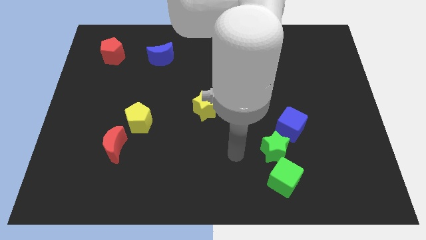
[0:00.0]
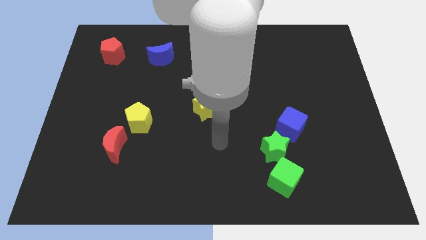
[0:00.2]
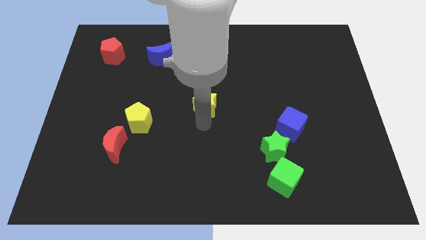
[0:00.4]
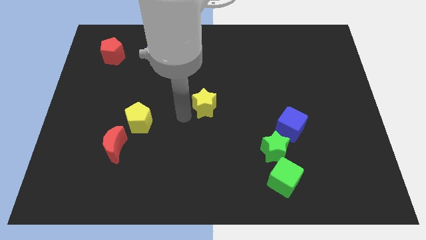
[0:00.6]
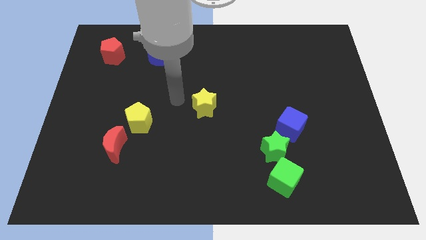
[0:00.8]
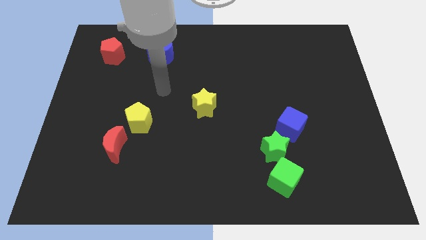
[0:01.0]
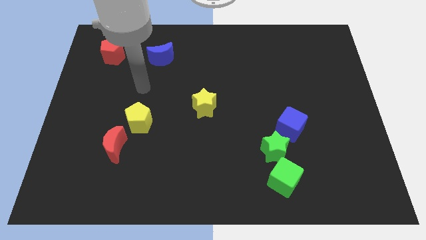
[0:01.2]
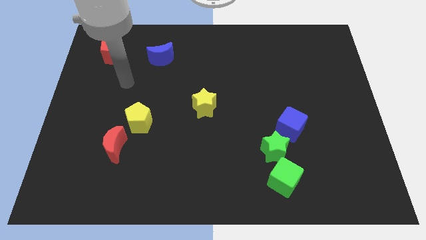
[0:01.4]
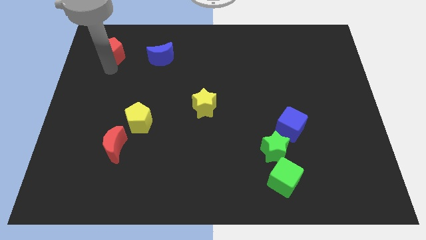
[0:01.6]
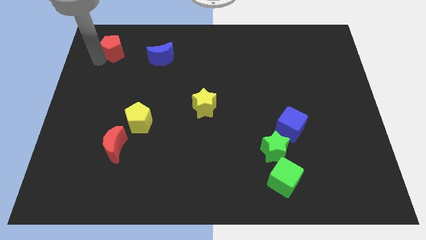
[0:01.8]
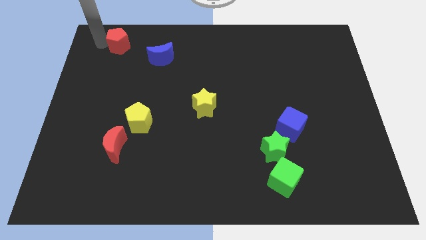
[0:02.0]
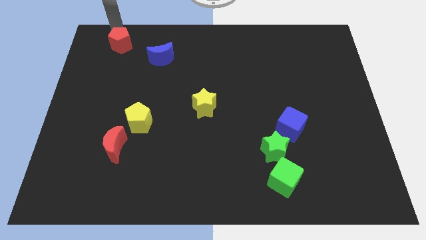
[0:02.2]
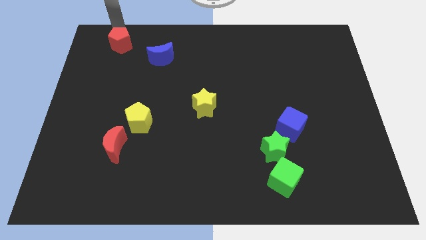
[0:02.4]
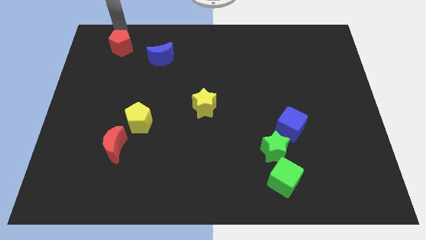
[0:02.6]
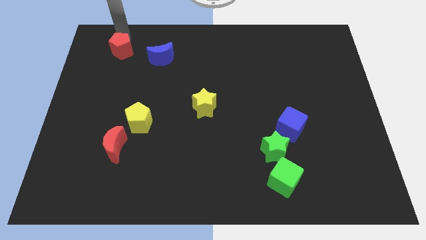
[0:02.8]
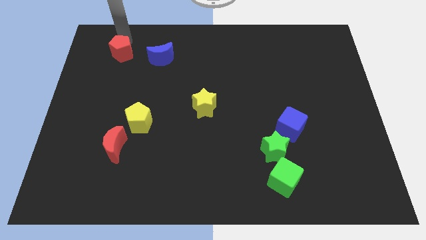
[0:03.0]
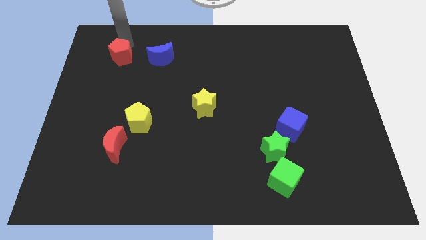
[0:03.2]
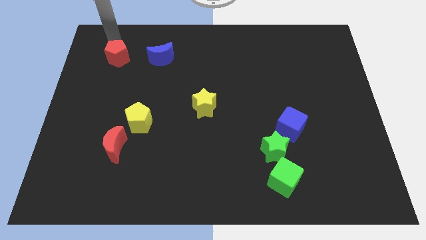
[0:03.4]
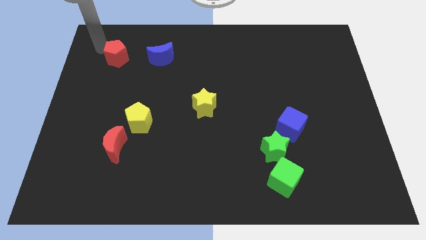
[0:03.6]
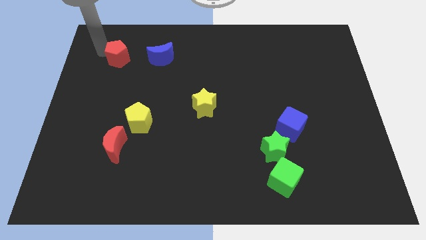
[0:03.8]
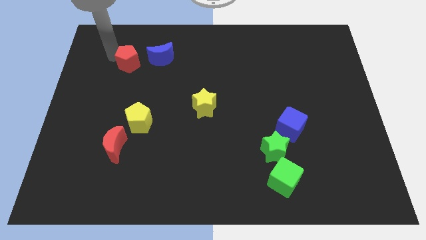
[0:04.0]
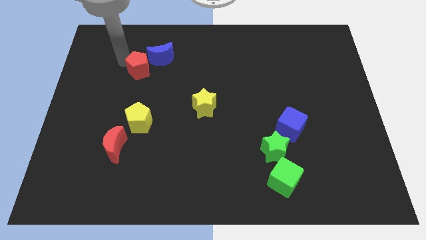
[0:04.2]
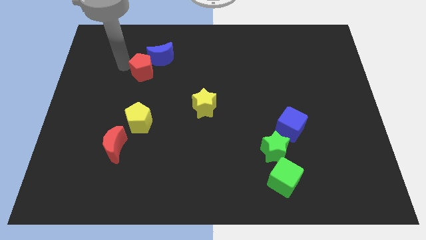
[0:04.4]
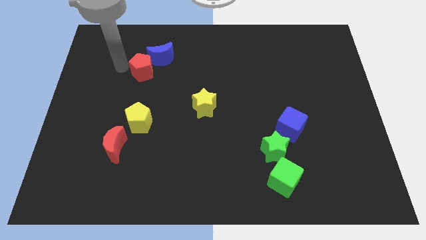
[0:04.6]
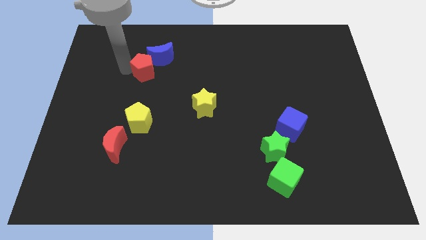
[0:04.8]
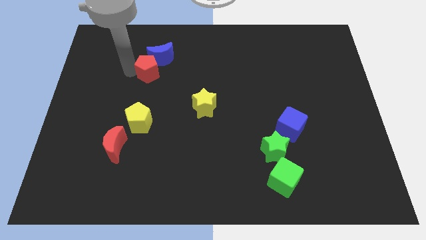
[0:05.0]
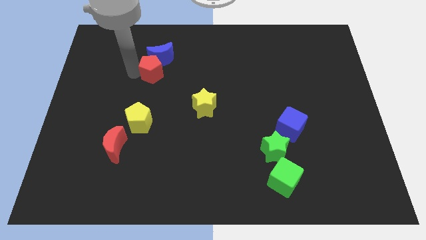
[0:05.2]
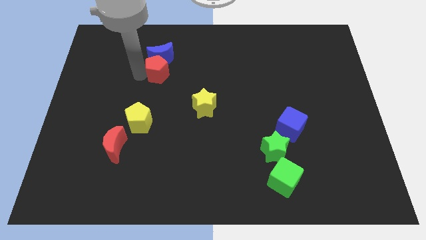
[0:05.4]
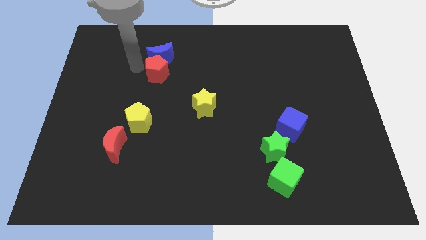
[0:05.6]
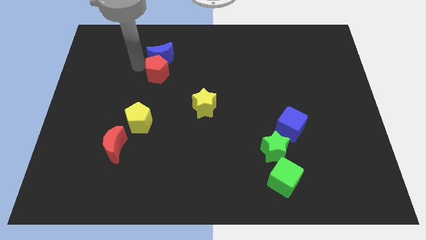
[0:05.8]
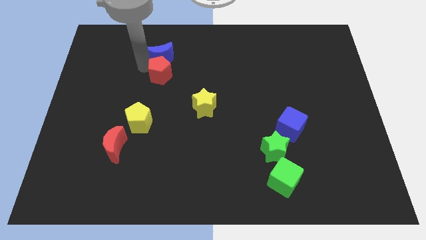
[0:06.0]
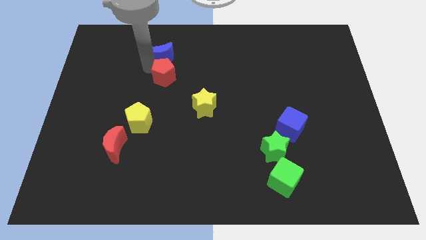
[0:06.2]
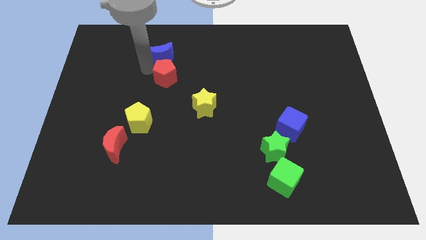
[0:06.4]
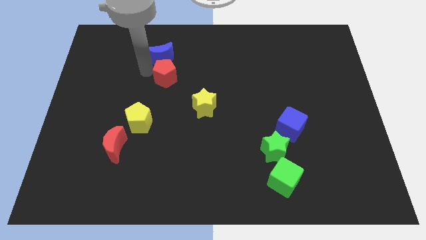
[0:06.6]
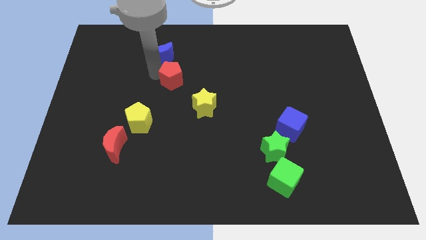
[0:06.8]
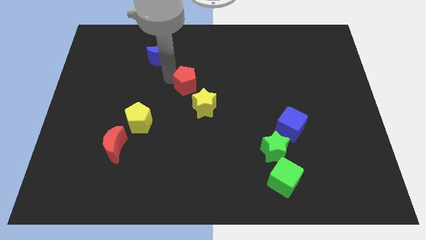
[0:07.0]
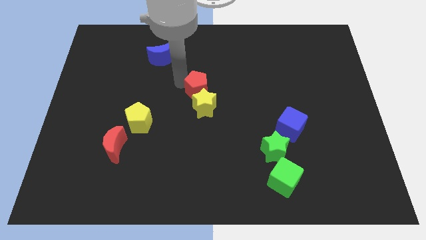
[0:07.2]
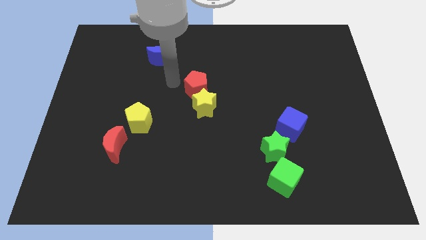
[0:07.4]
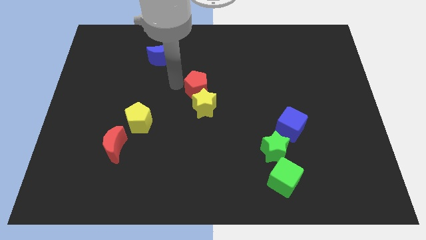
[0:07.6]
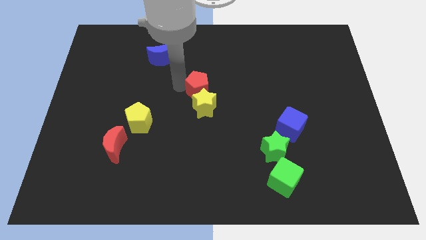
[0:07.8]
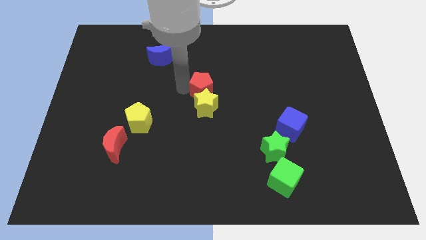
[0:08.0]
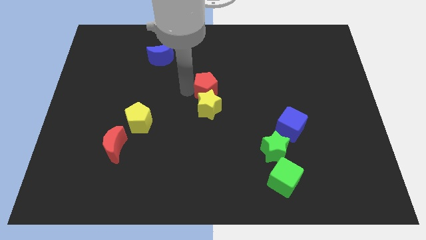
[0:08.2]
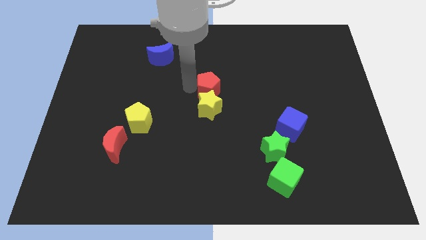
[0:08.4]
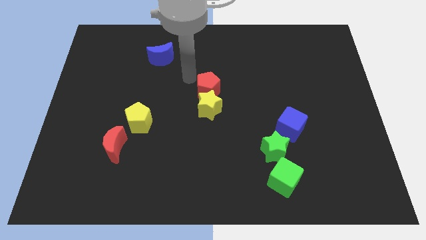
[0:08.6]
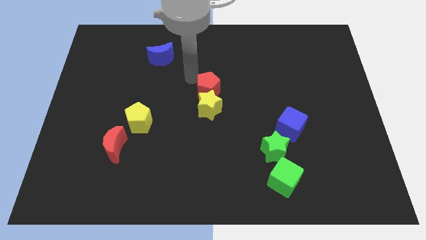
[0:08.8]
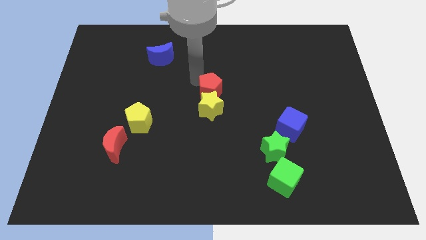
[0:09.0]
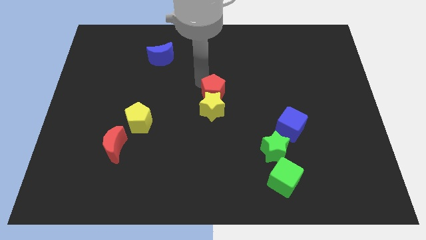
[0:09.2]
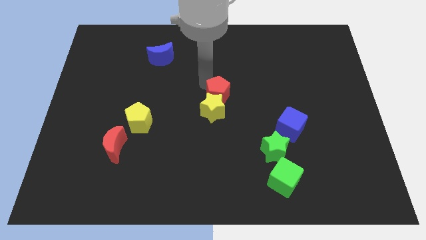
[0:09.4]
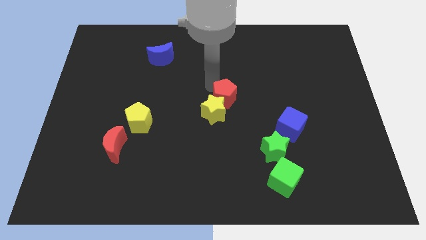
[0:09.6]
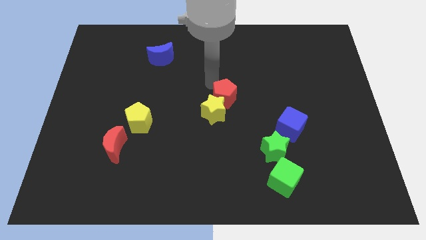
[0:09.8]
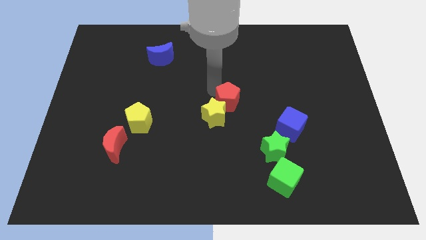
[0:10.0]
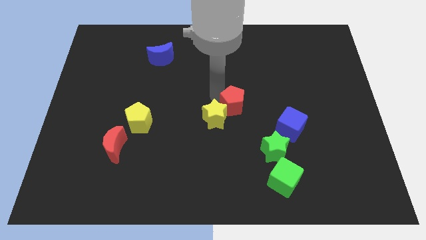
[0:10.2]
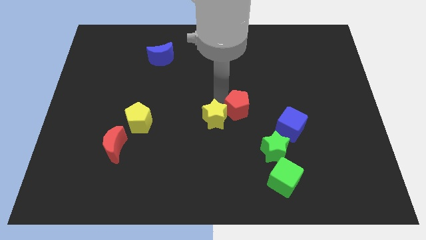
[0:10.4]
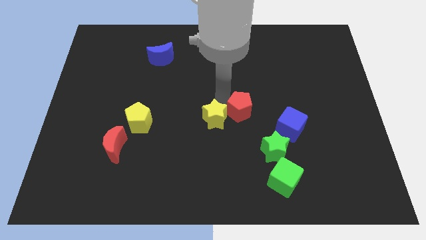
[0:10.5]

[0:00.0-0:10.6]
push the red pentagon diagonally up and to the left of the green star

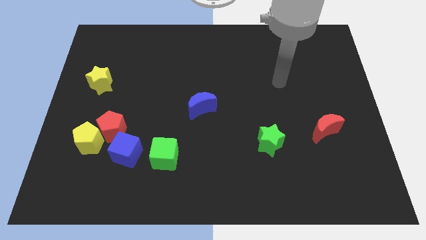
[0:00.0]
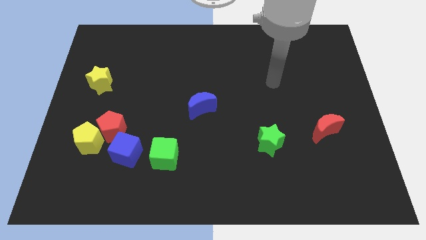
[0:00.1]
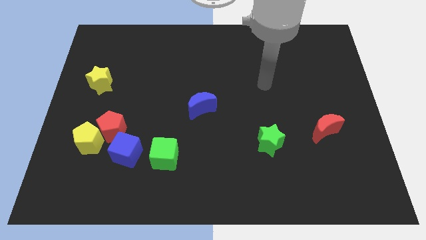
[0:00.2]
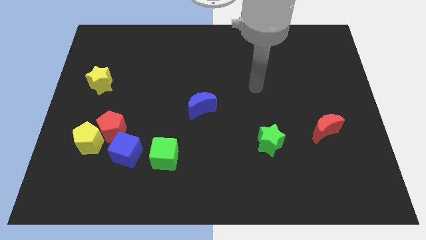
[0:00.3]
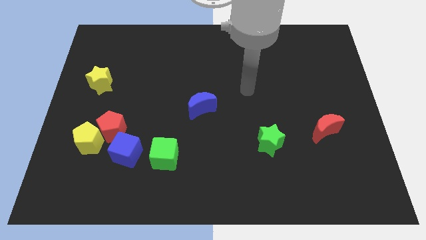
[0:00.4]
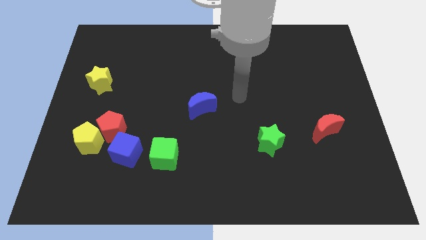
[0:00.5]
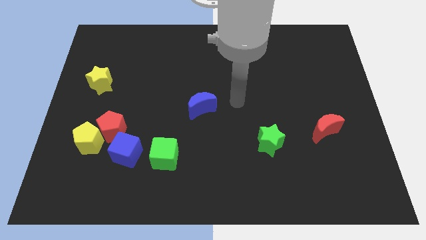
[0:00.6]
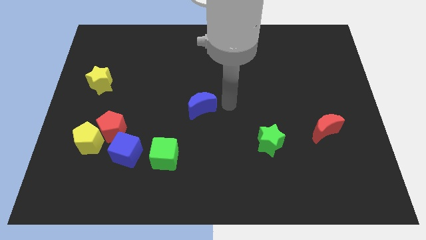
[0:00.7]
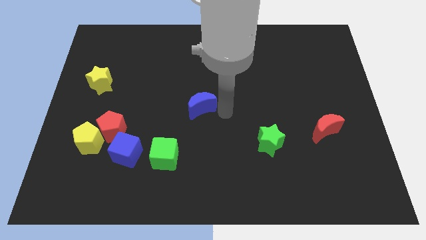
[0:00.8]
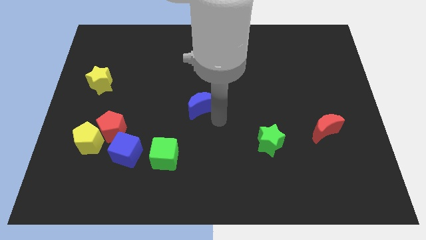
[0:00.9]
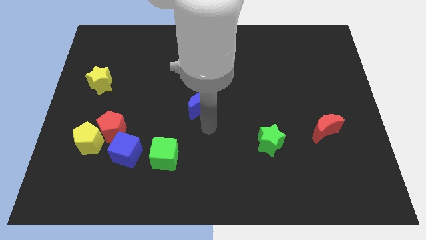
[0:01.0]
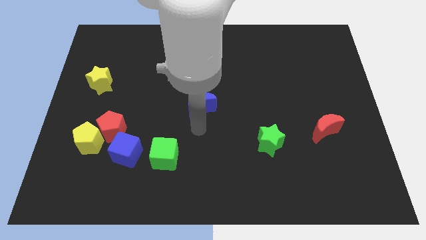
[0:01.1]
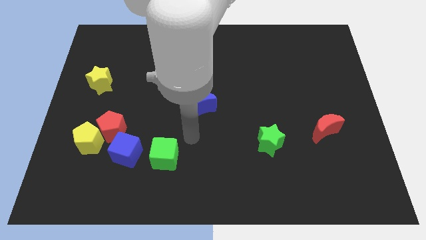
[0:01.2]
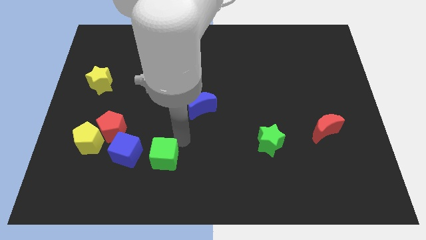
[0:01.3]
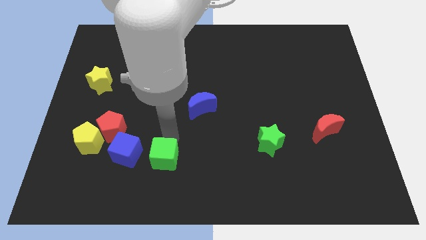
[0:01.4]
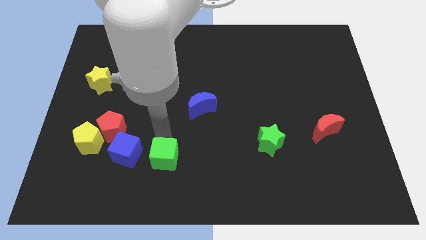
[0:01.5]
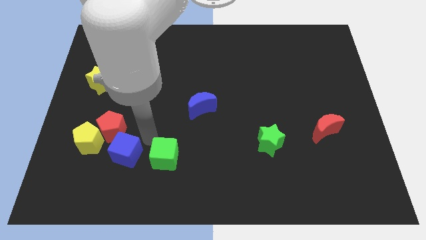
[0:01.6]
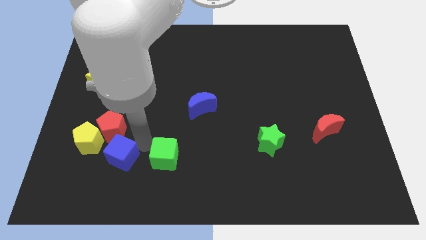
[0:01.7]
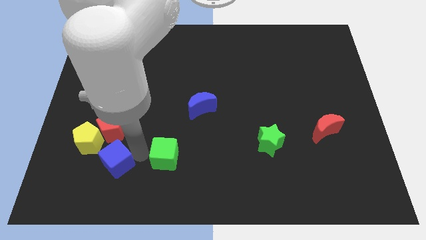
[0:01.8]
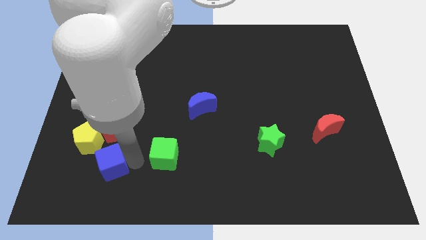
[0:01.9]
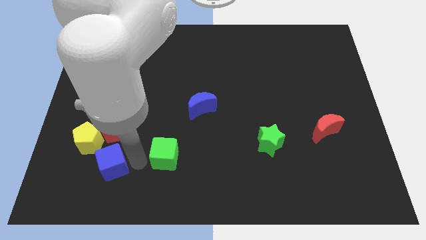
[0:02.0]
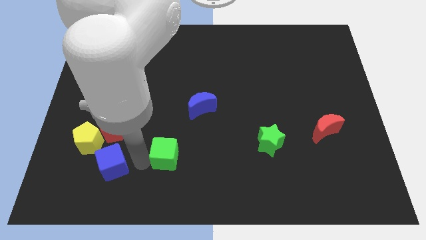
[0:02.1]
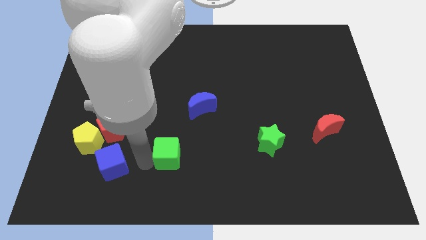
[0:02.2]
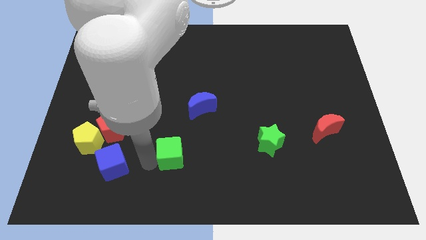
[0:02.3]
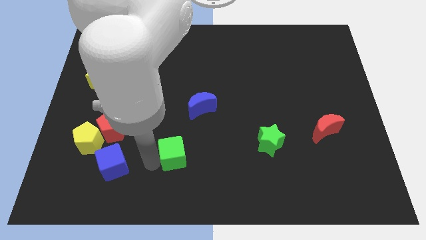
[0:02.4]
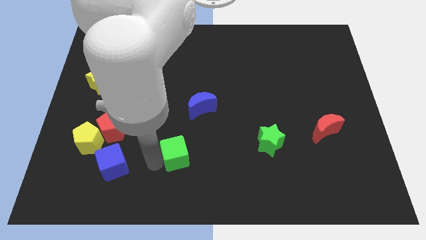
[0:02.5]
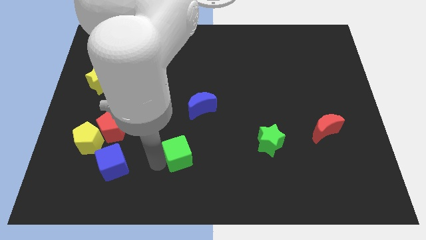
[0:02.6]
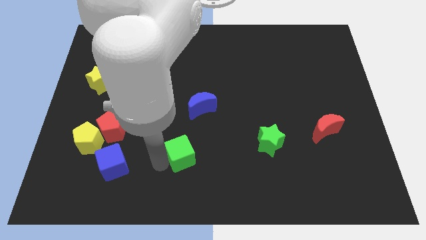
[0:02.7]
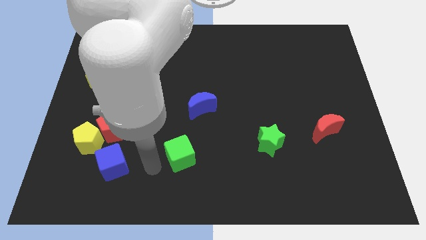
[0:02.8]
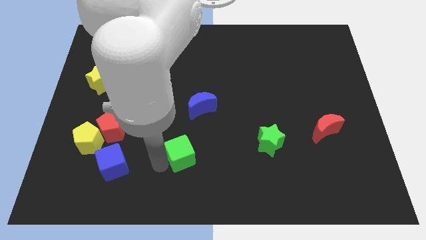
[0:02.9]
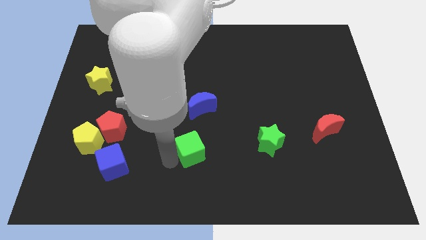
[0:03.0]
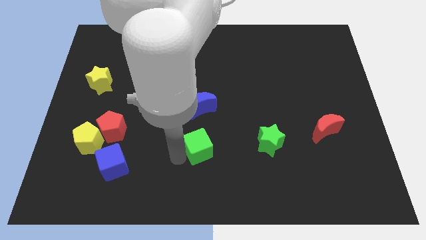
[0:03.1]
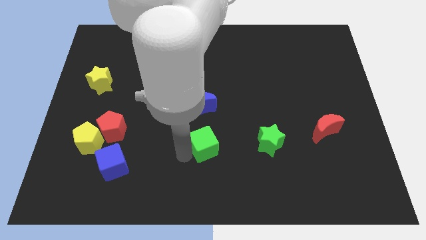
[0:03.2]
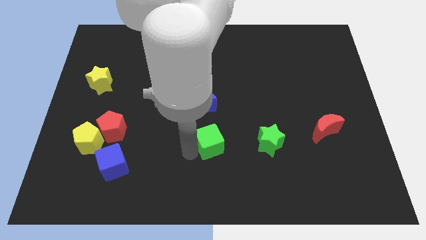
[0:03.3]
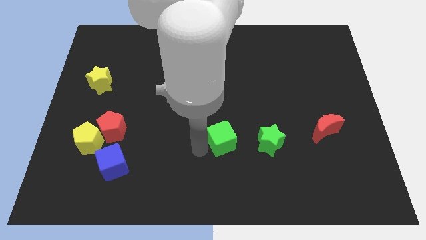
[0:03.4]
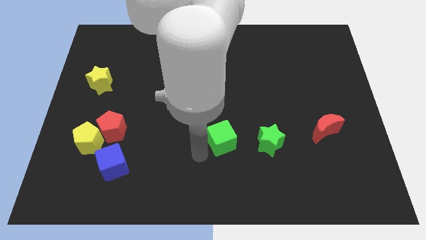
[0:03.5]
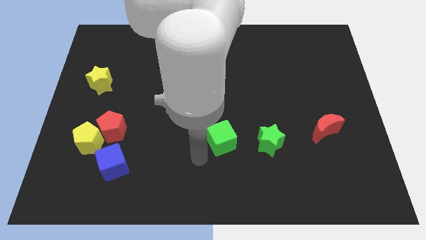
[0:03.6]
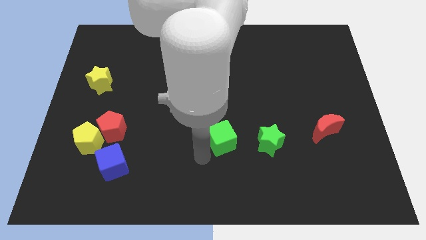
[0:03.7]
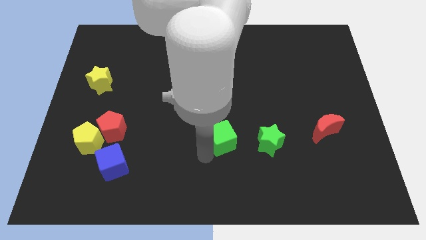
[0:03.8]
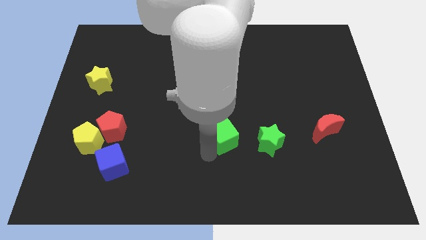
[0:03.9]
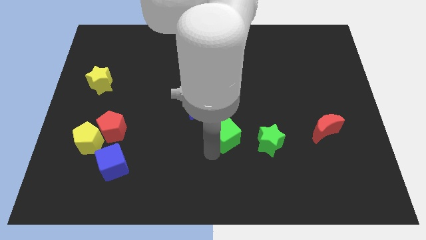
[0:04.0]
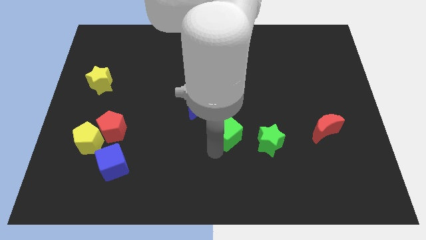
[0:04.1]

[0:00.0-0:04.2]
put the green cube to the top left side of the green star
